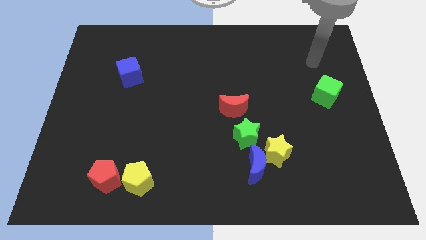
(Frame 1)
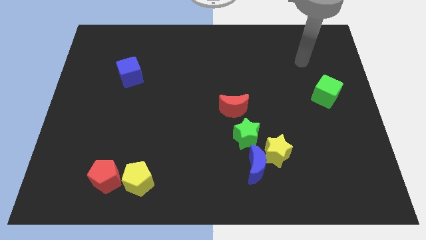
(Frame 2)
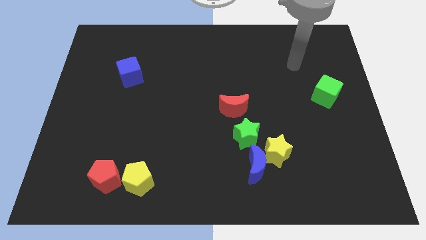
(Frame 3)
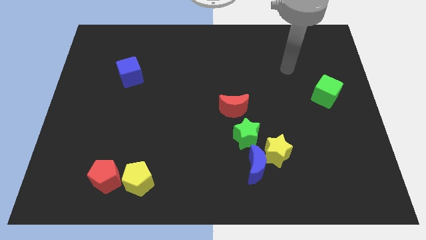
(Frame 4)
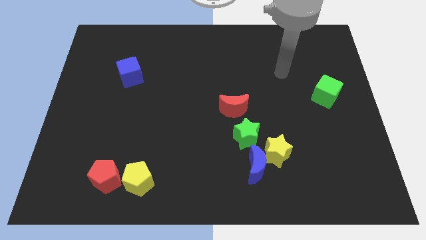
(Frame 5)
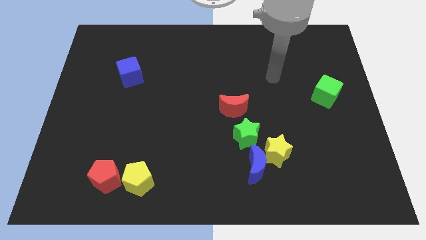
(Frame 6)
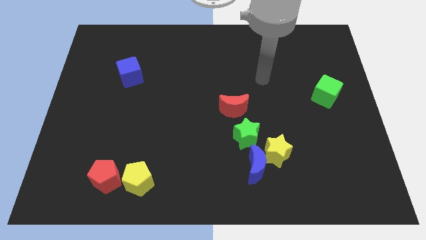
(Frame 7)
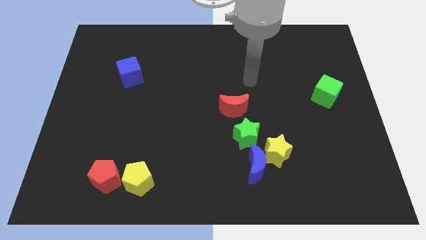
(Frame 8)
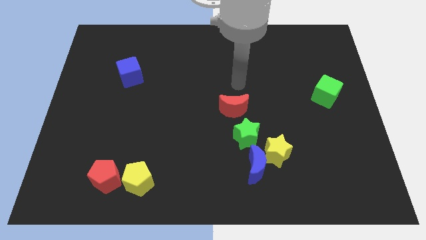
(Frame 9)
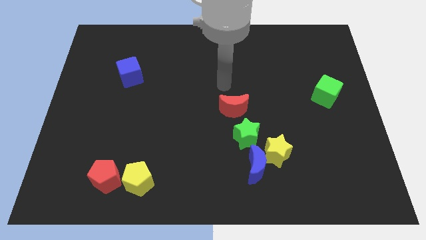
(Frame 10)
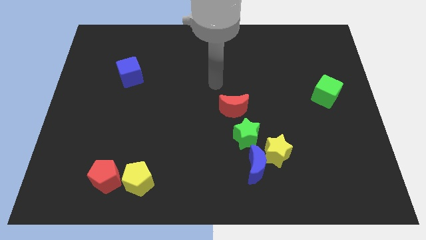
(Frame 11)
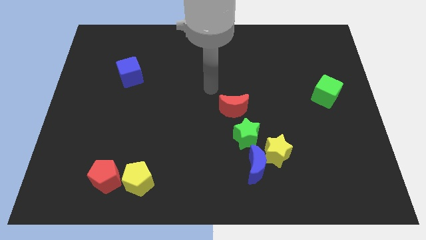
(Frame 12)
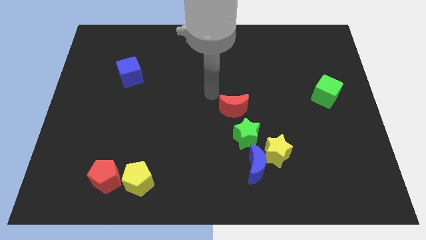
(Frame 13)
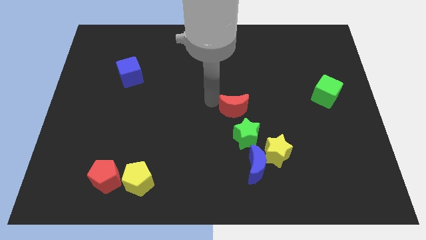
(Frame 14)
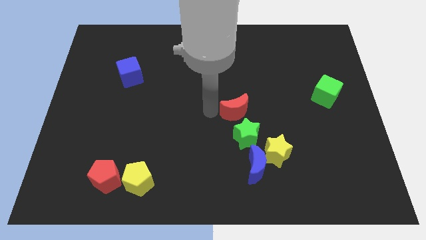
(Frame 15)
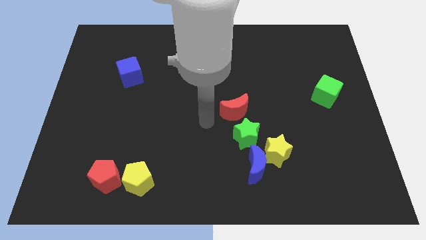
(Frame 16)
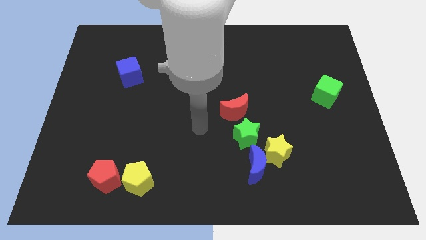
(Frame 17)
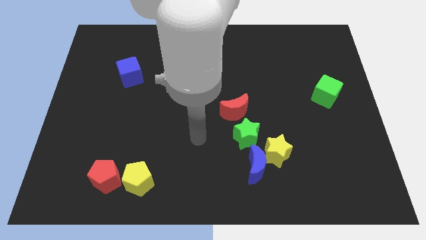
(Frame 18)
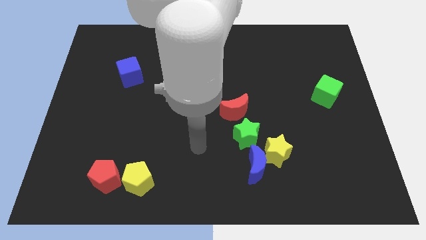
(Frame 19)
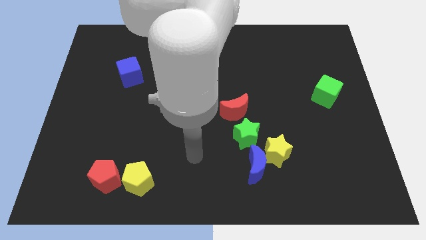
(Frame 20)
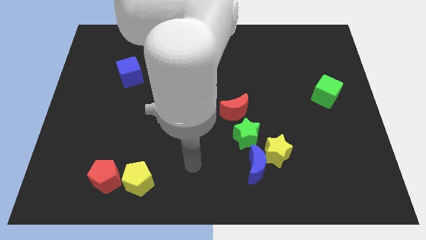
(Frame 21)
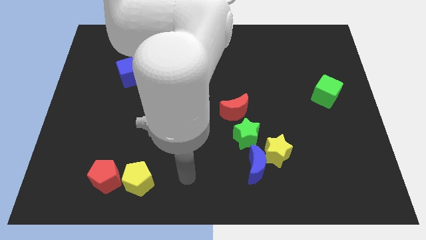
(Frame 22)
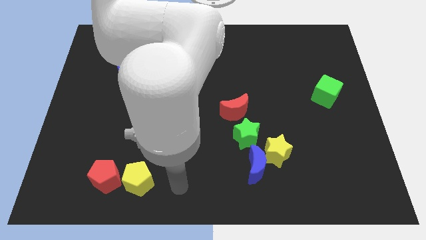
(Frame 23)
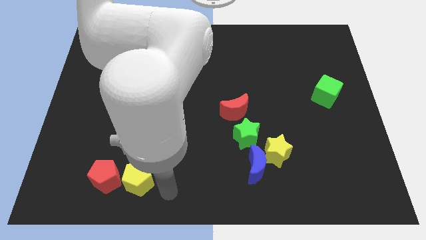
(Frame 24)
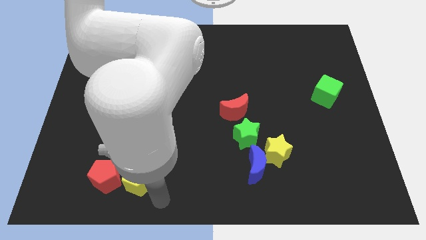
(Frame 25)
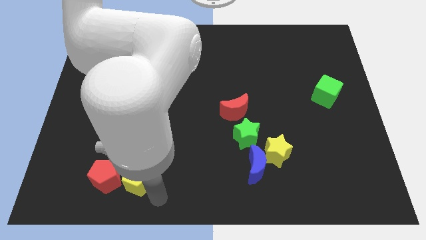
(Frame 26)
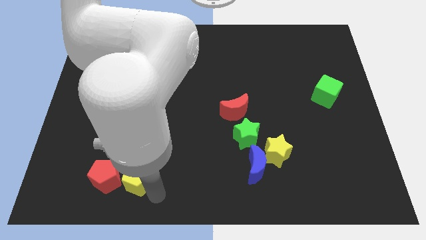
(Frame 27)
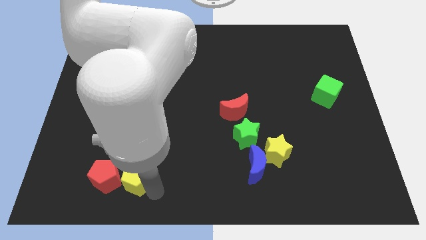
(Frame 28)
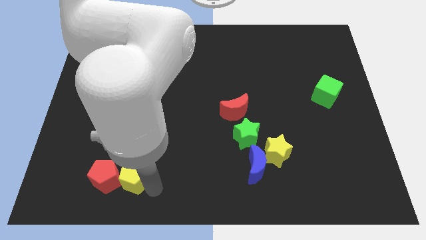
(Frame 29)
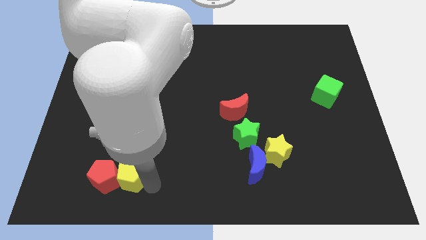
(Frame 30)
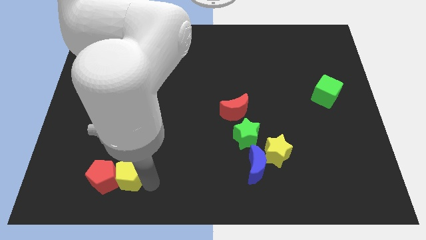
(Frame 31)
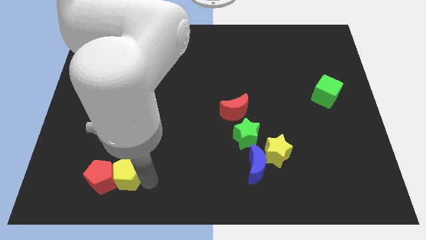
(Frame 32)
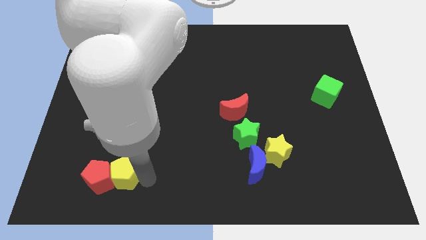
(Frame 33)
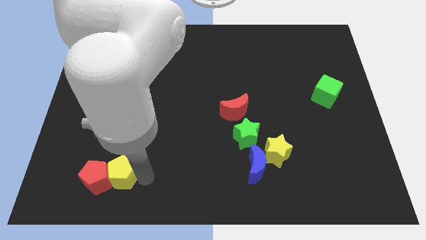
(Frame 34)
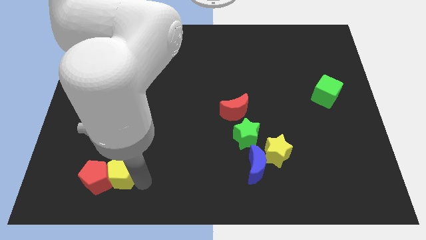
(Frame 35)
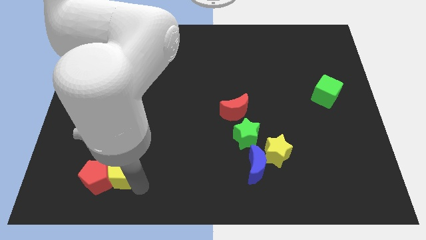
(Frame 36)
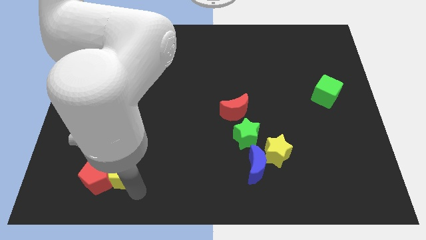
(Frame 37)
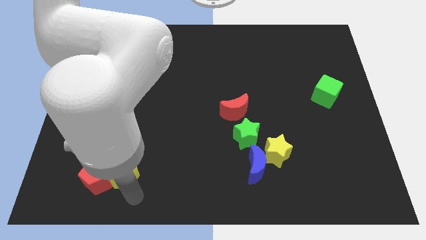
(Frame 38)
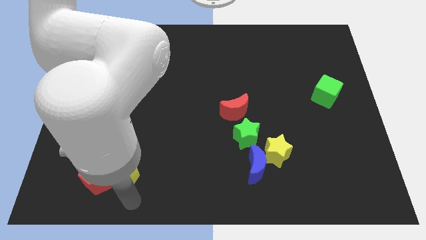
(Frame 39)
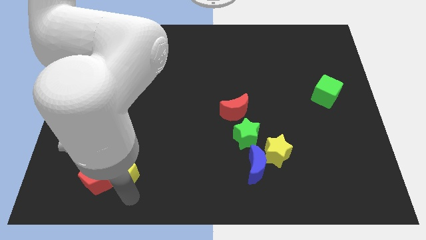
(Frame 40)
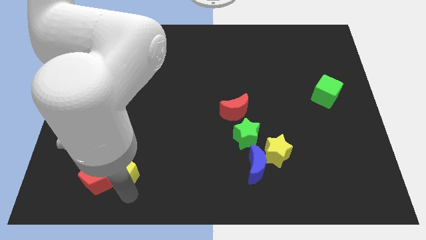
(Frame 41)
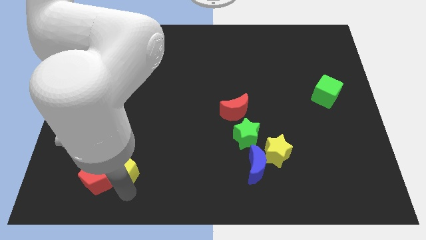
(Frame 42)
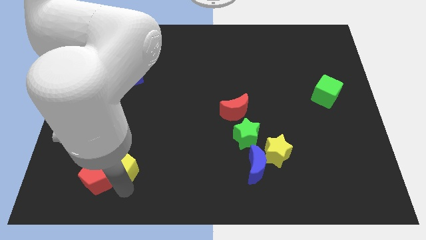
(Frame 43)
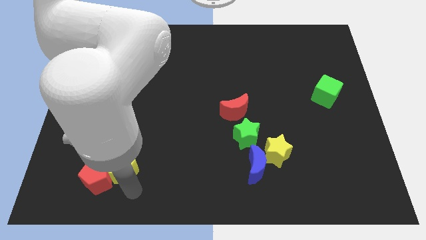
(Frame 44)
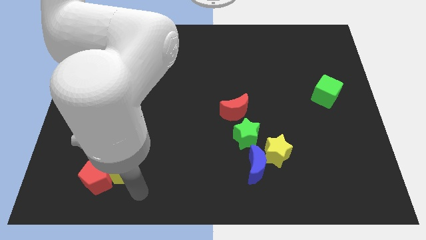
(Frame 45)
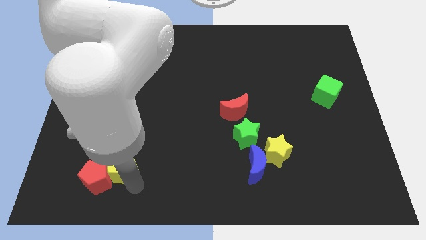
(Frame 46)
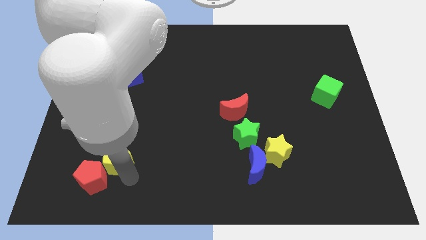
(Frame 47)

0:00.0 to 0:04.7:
slightly slide the yellow pentagon up and to the left diagonally

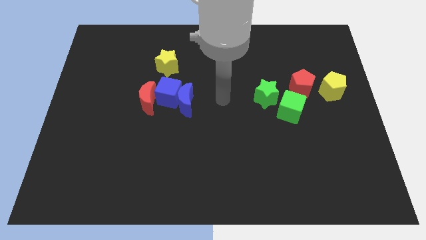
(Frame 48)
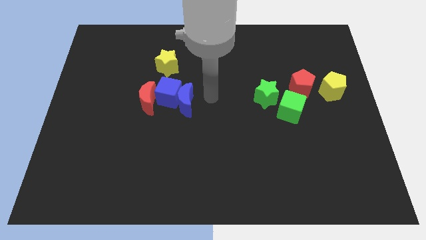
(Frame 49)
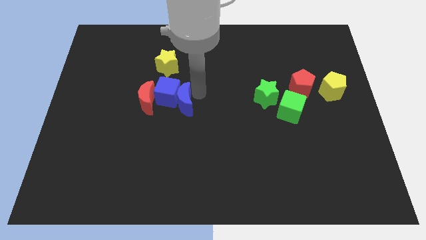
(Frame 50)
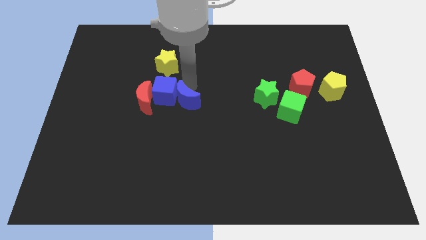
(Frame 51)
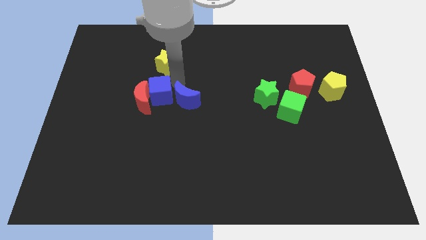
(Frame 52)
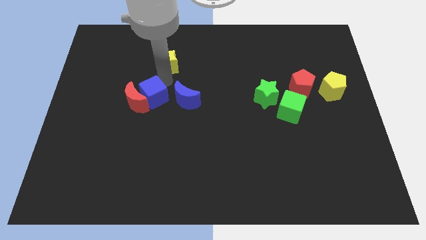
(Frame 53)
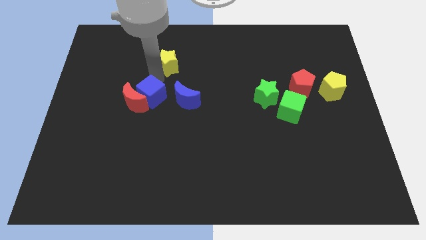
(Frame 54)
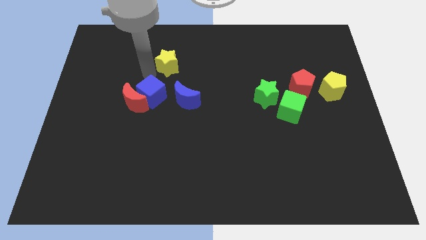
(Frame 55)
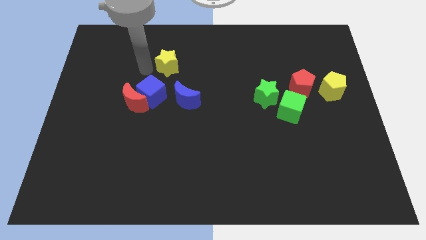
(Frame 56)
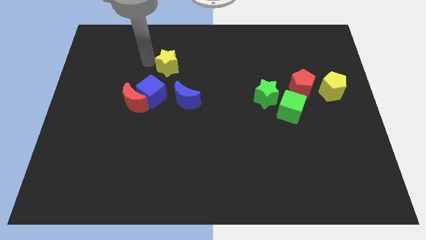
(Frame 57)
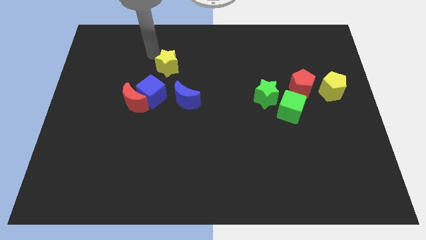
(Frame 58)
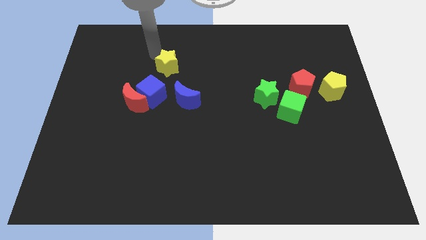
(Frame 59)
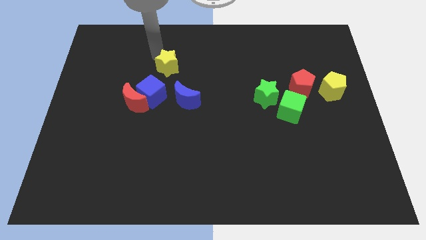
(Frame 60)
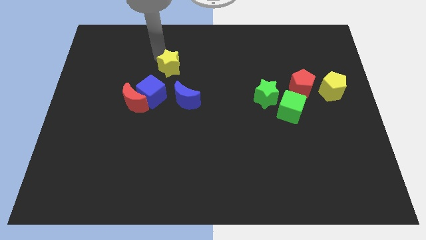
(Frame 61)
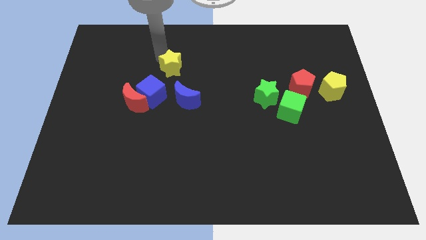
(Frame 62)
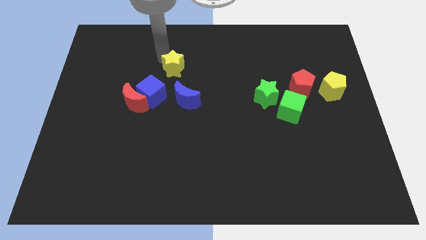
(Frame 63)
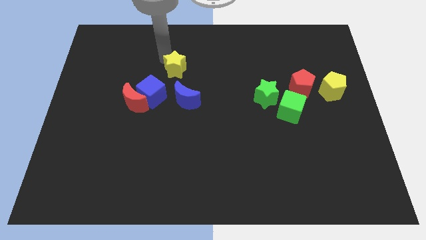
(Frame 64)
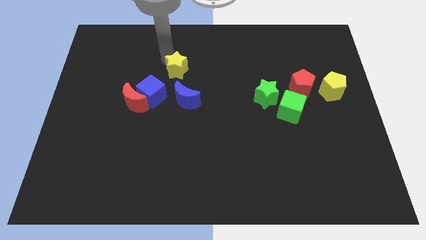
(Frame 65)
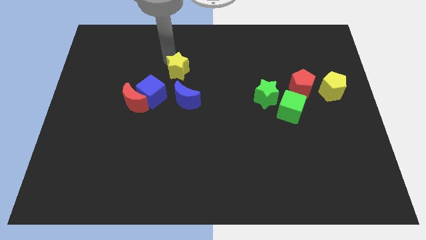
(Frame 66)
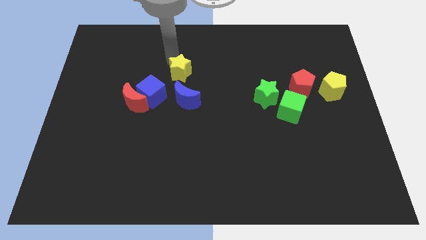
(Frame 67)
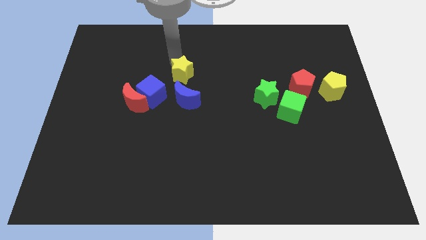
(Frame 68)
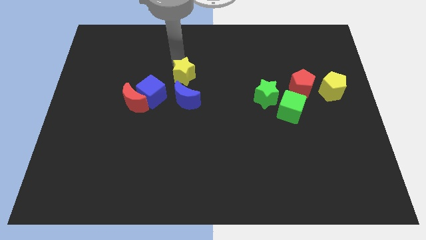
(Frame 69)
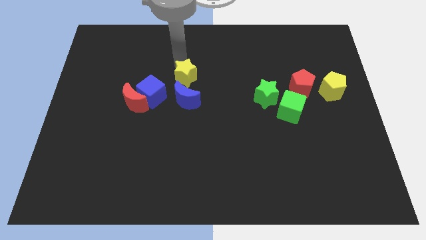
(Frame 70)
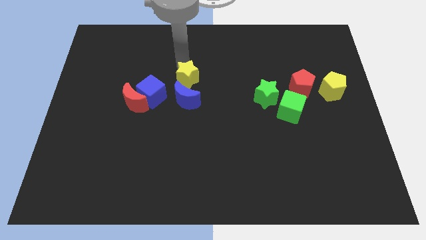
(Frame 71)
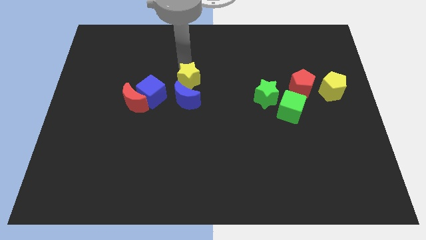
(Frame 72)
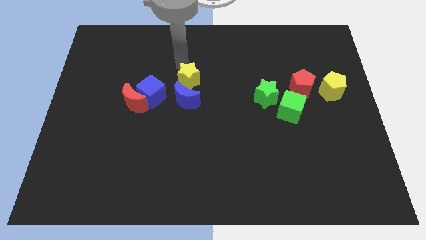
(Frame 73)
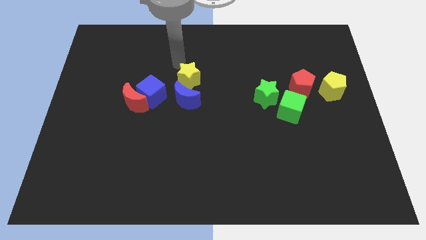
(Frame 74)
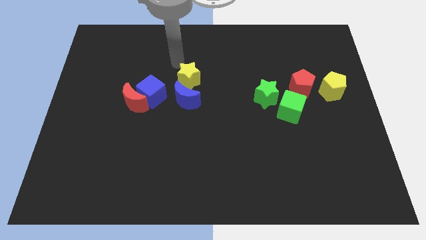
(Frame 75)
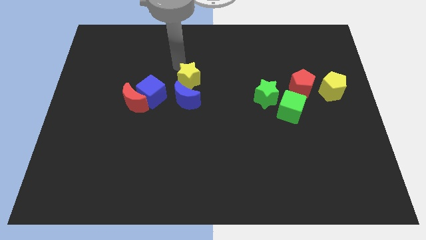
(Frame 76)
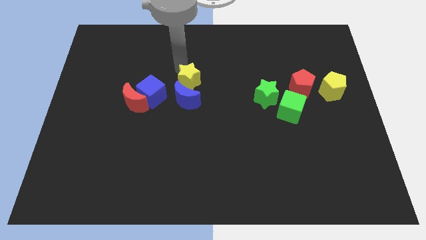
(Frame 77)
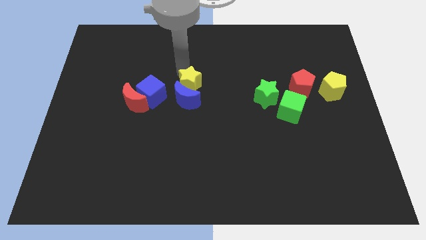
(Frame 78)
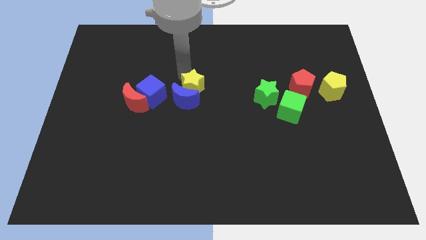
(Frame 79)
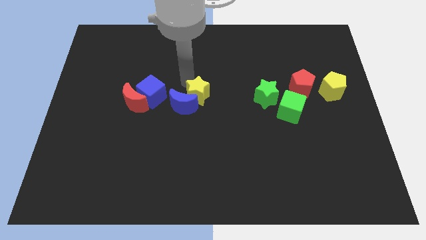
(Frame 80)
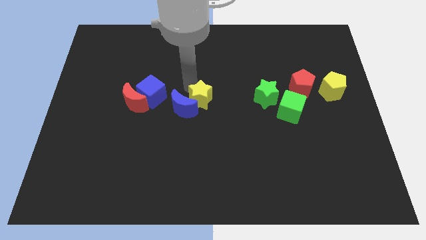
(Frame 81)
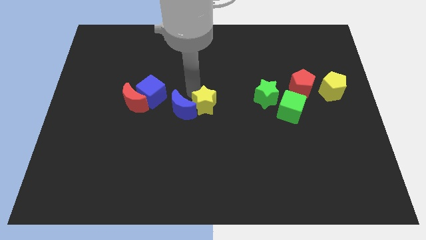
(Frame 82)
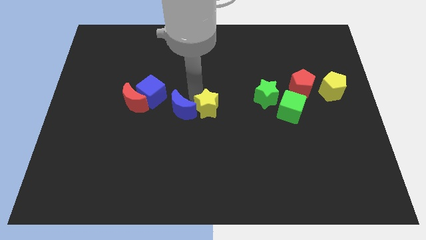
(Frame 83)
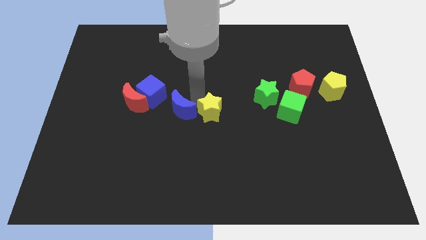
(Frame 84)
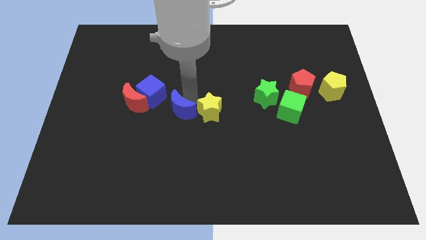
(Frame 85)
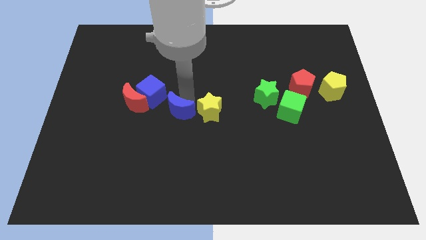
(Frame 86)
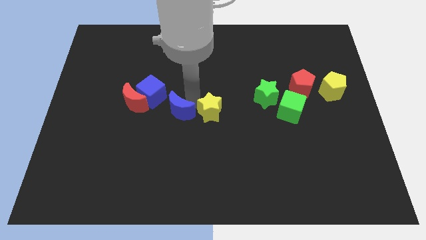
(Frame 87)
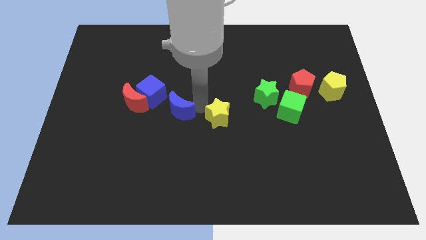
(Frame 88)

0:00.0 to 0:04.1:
move the yellow star down and right diagonally
